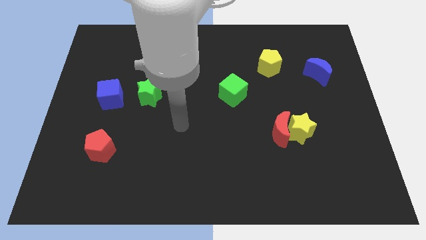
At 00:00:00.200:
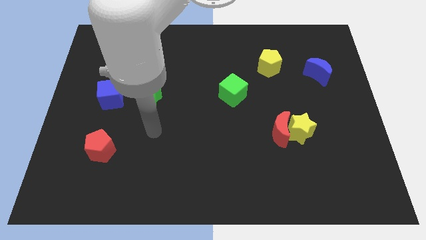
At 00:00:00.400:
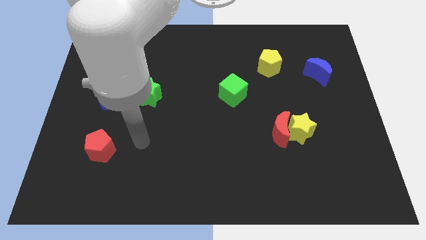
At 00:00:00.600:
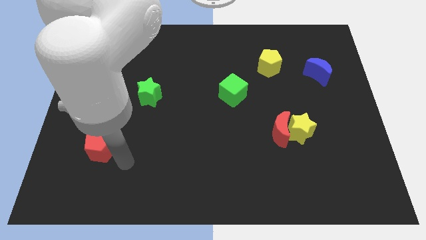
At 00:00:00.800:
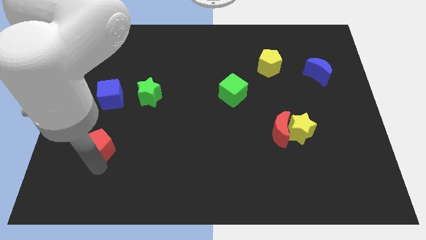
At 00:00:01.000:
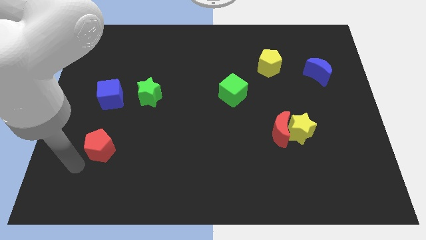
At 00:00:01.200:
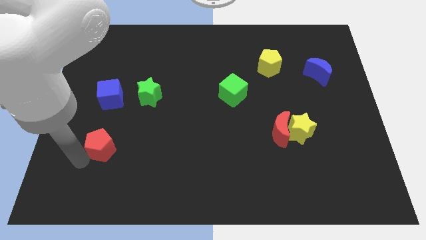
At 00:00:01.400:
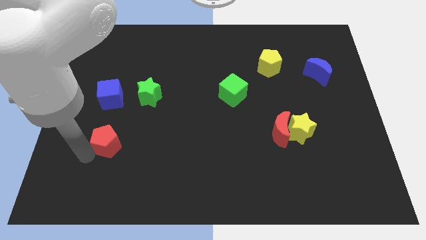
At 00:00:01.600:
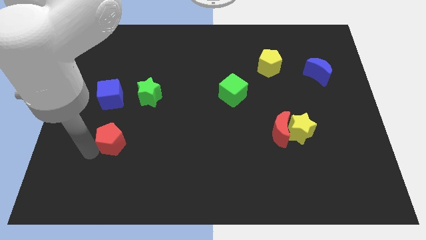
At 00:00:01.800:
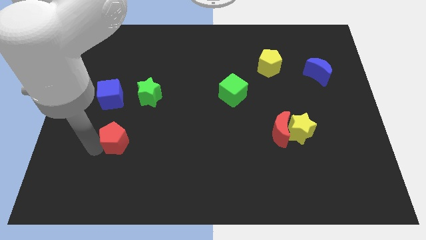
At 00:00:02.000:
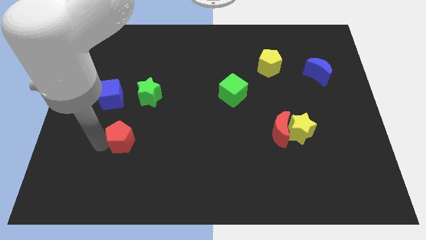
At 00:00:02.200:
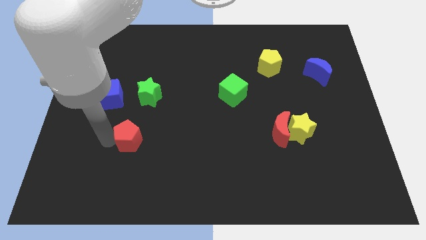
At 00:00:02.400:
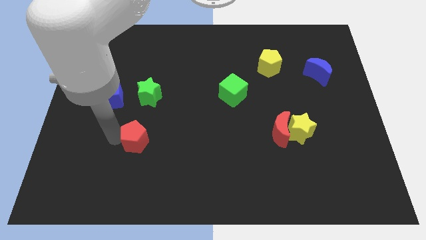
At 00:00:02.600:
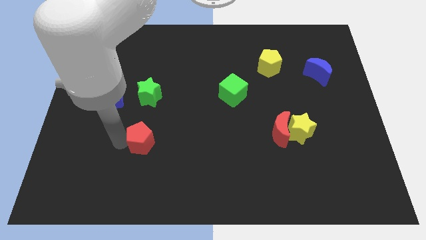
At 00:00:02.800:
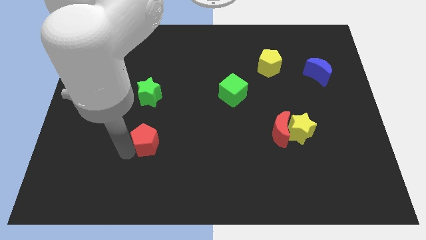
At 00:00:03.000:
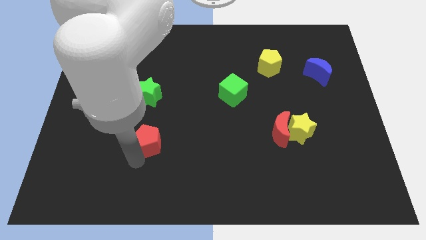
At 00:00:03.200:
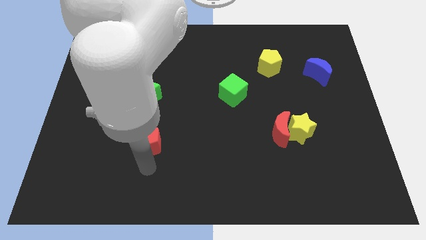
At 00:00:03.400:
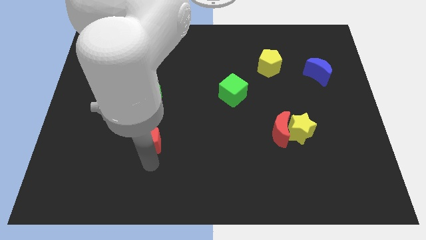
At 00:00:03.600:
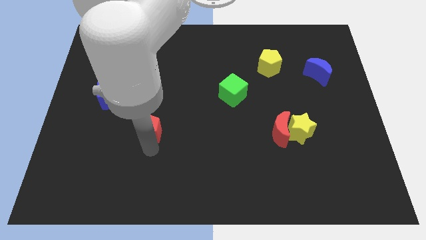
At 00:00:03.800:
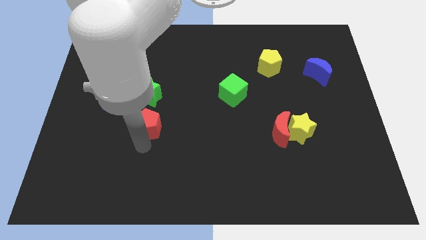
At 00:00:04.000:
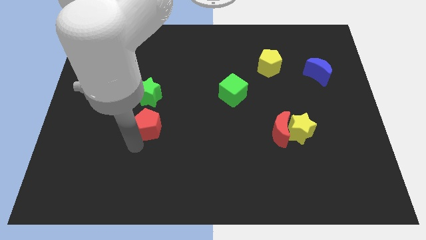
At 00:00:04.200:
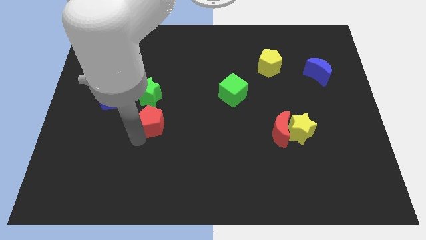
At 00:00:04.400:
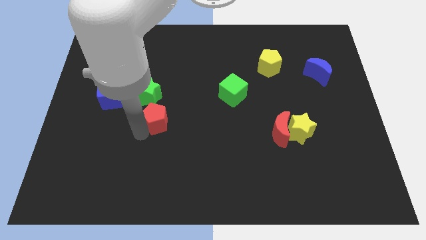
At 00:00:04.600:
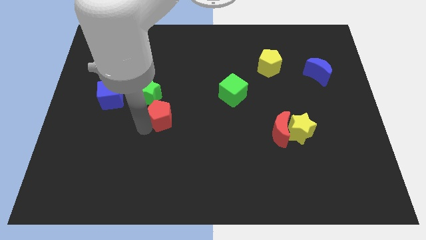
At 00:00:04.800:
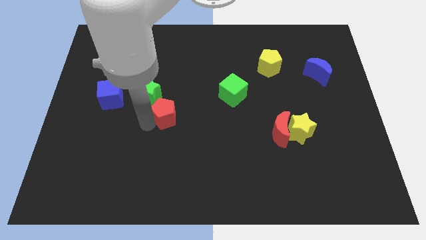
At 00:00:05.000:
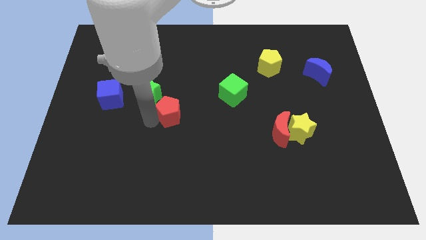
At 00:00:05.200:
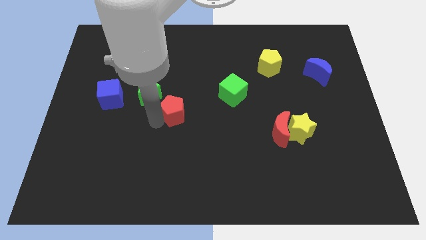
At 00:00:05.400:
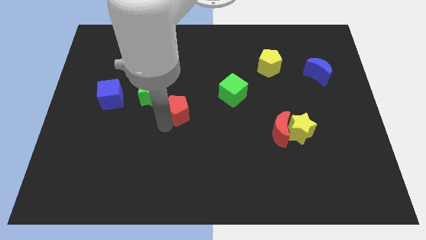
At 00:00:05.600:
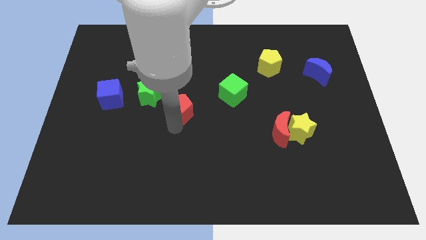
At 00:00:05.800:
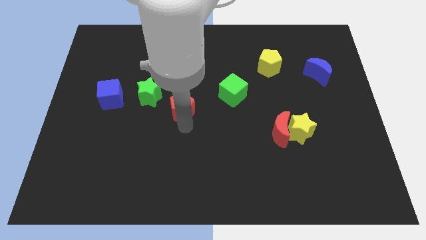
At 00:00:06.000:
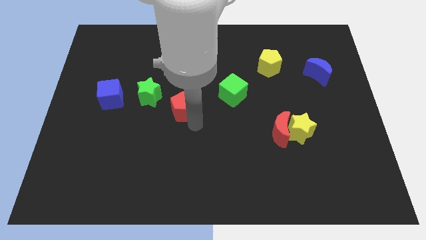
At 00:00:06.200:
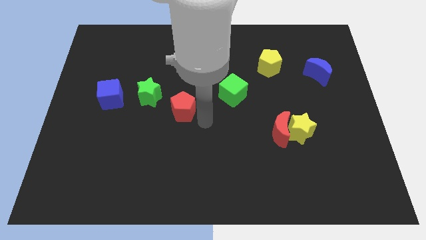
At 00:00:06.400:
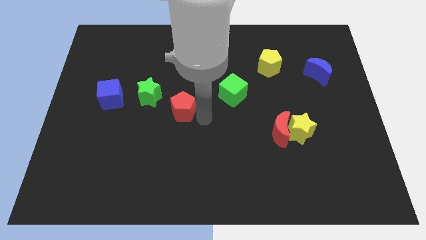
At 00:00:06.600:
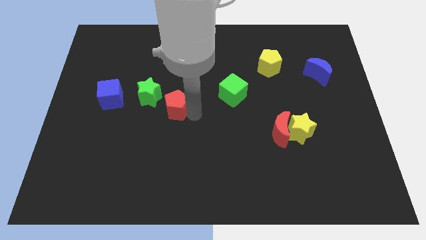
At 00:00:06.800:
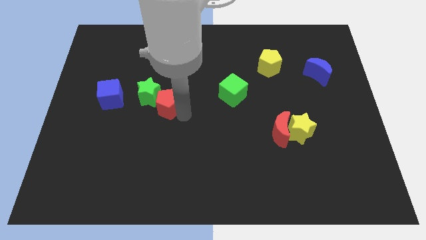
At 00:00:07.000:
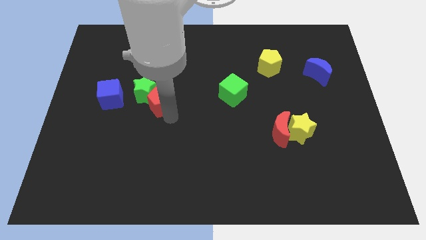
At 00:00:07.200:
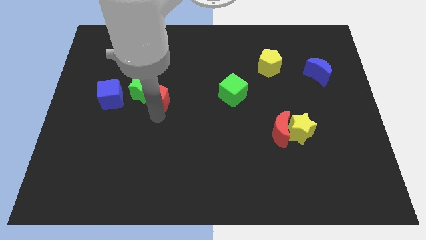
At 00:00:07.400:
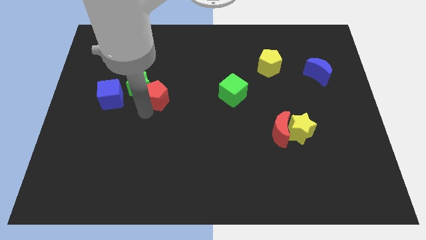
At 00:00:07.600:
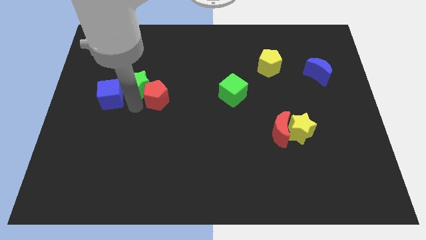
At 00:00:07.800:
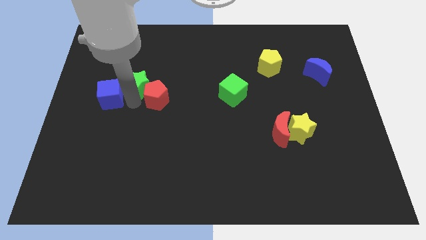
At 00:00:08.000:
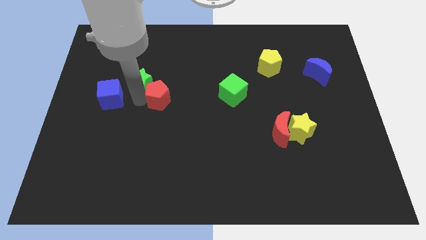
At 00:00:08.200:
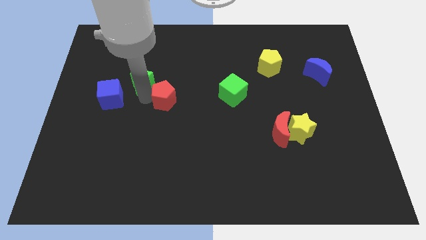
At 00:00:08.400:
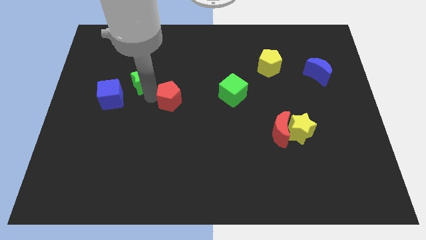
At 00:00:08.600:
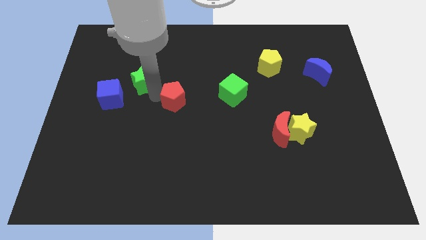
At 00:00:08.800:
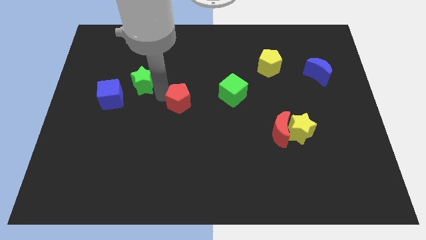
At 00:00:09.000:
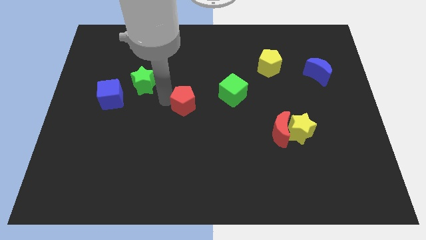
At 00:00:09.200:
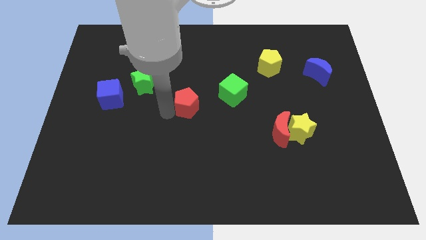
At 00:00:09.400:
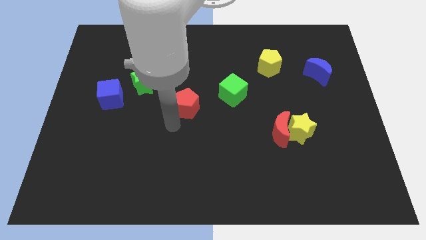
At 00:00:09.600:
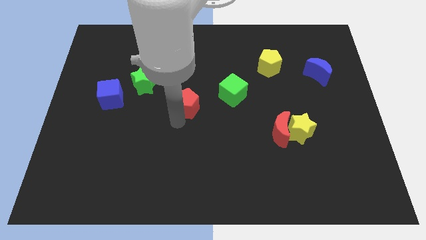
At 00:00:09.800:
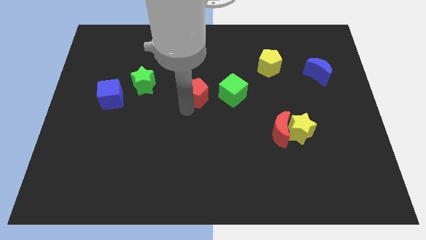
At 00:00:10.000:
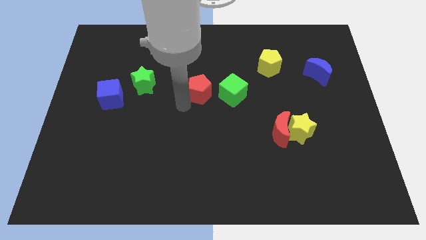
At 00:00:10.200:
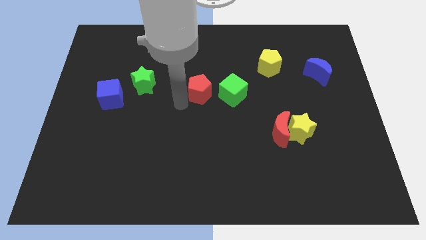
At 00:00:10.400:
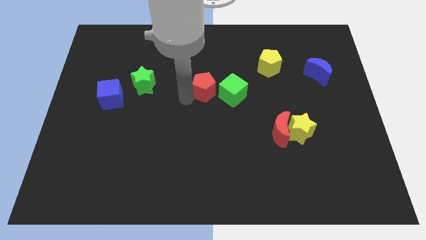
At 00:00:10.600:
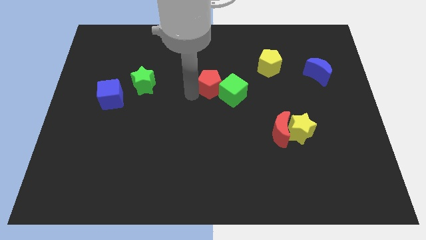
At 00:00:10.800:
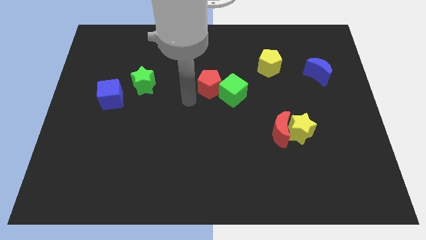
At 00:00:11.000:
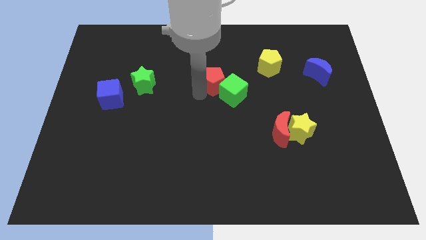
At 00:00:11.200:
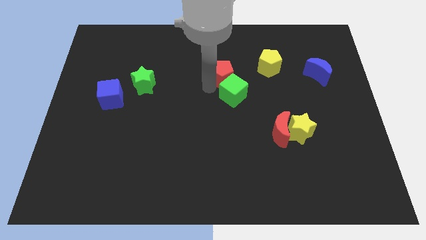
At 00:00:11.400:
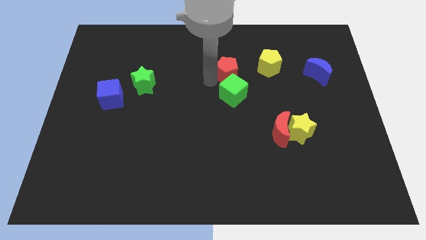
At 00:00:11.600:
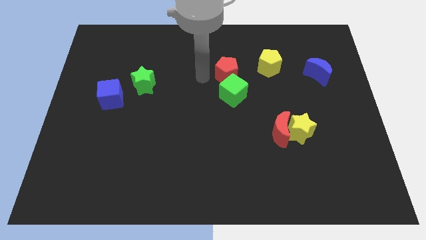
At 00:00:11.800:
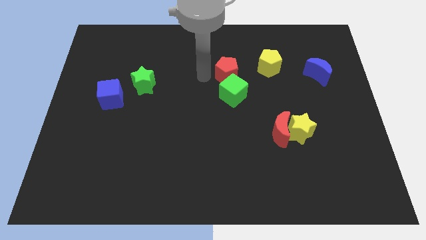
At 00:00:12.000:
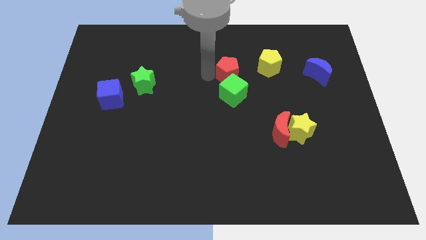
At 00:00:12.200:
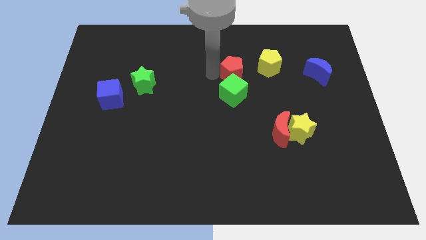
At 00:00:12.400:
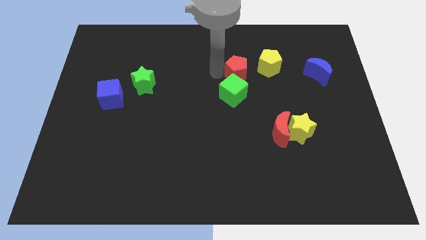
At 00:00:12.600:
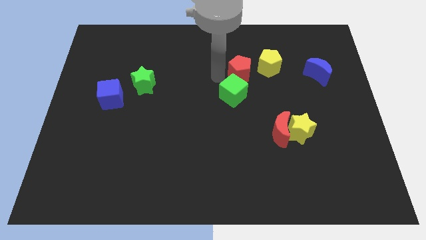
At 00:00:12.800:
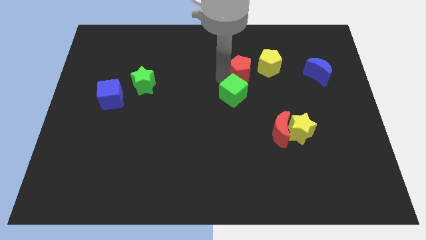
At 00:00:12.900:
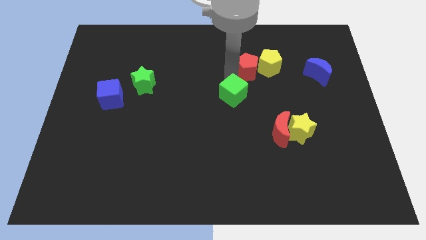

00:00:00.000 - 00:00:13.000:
push the red pentagon next to the yellow pentagon

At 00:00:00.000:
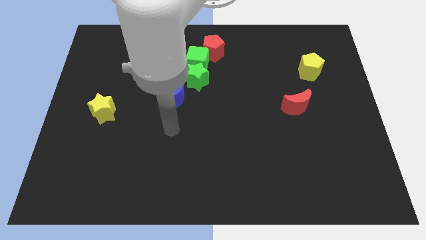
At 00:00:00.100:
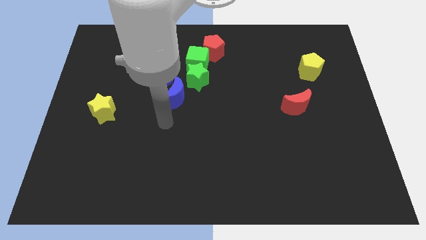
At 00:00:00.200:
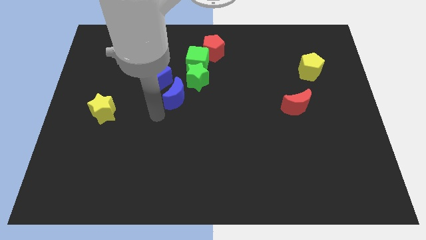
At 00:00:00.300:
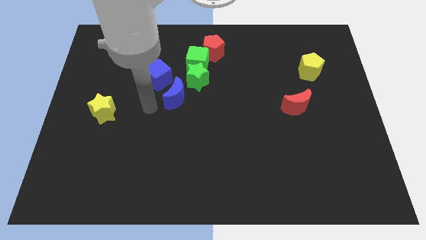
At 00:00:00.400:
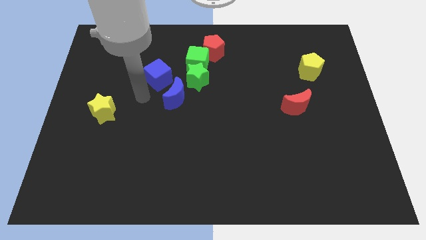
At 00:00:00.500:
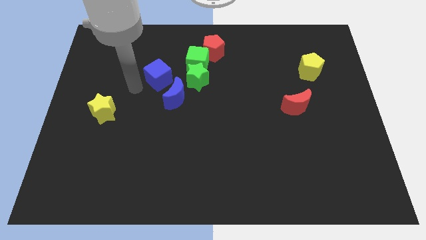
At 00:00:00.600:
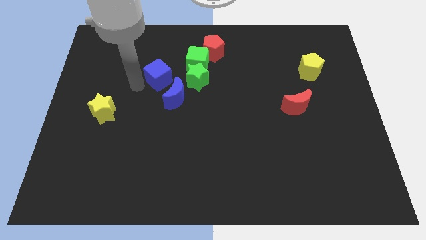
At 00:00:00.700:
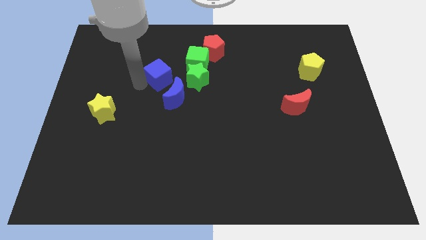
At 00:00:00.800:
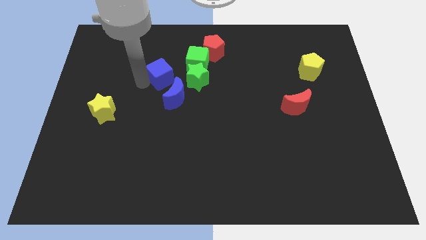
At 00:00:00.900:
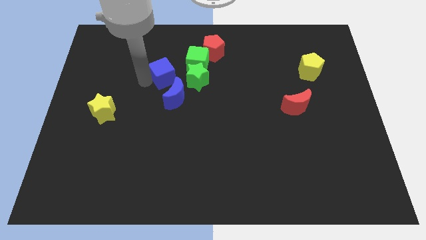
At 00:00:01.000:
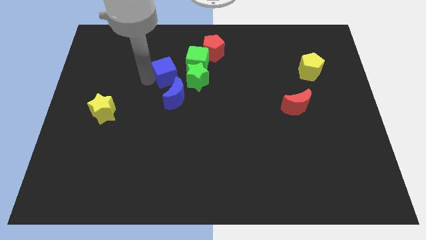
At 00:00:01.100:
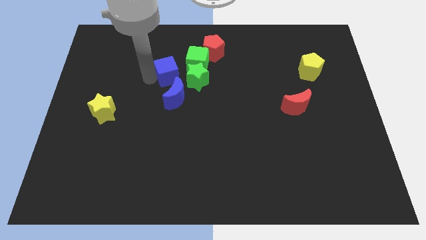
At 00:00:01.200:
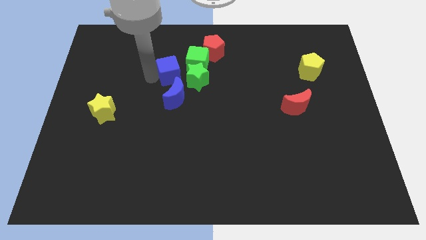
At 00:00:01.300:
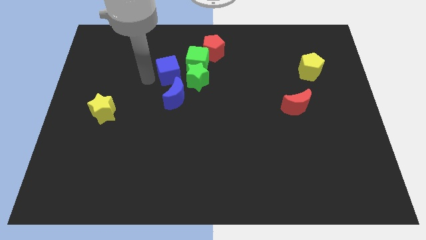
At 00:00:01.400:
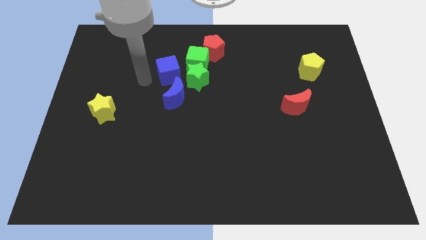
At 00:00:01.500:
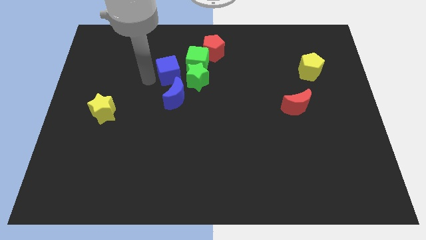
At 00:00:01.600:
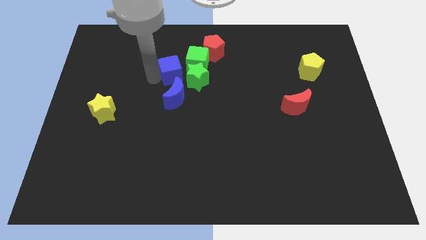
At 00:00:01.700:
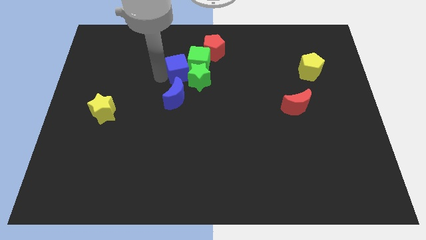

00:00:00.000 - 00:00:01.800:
move the blue cube to the green cube
